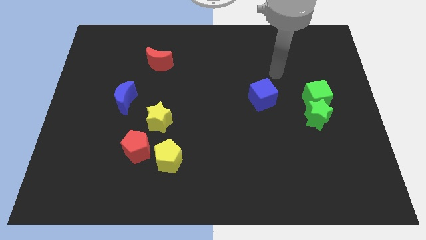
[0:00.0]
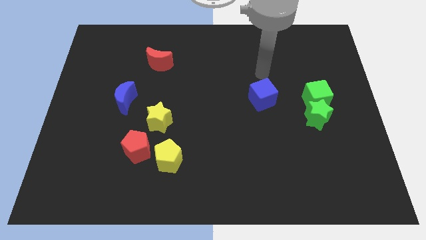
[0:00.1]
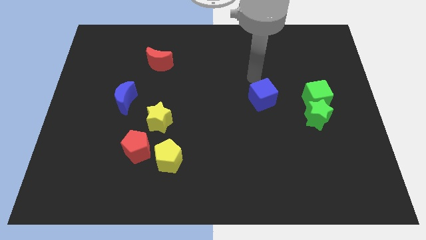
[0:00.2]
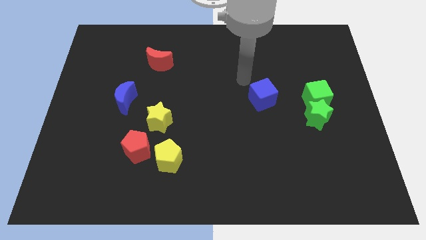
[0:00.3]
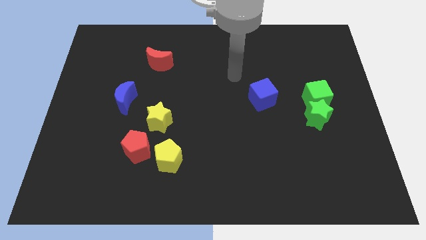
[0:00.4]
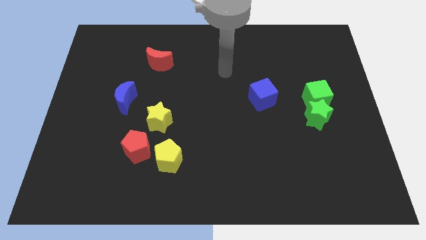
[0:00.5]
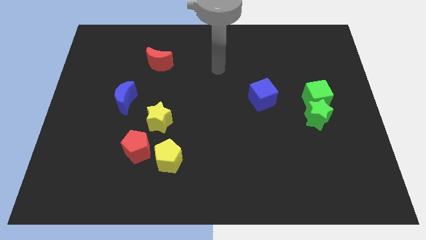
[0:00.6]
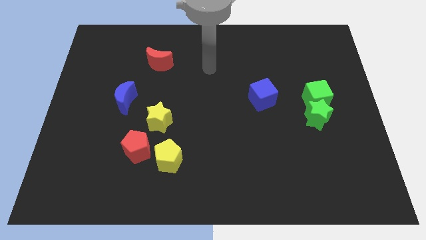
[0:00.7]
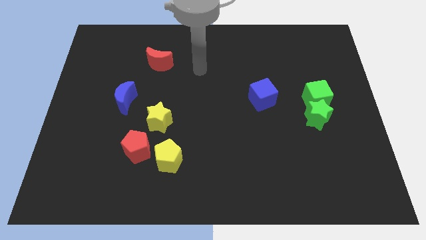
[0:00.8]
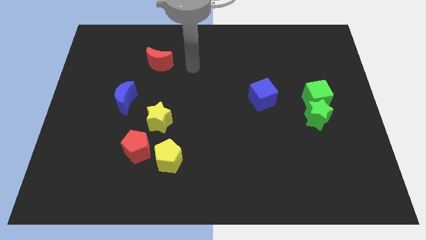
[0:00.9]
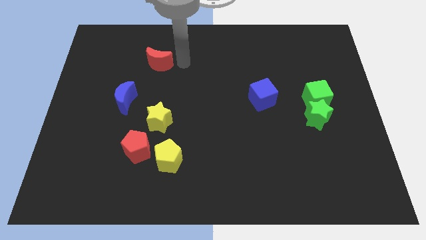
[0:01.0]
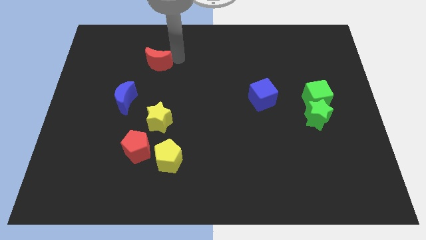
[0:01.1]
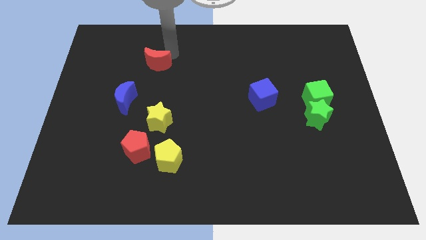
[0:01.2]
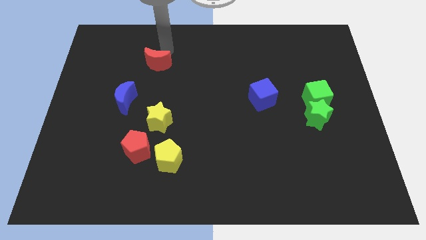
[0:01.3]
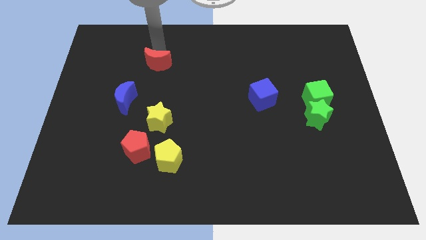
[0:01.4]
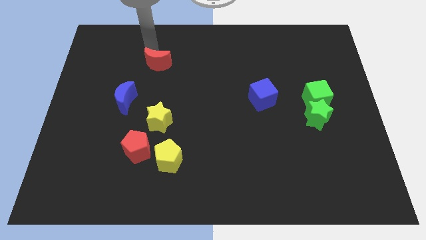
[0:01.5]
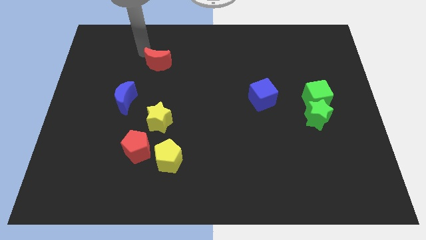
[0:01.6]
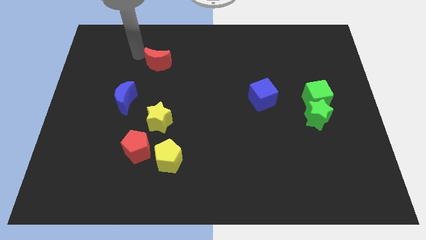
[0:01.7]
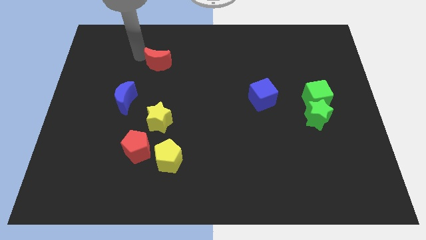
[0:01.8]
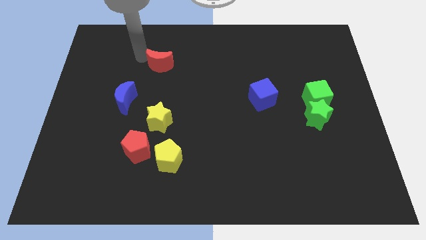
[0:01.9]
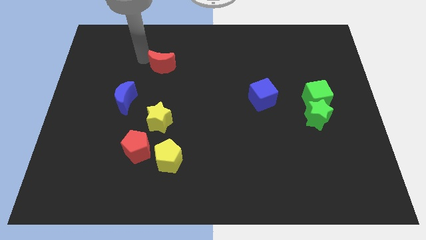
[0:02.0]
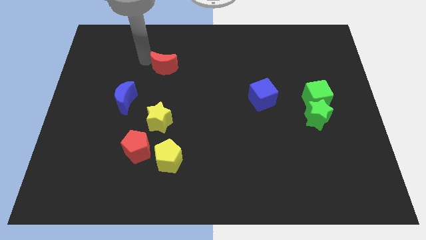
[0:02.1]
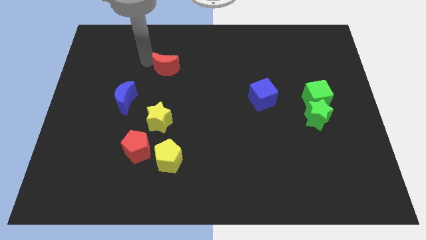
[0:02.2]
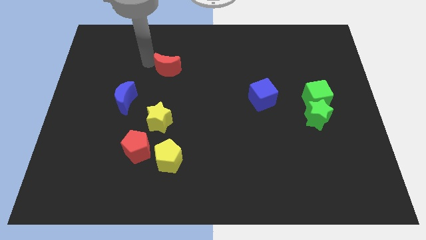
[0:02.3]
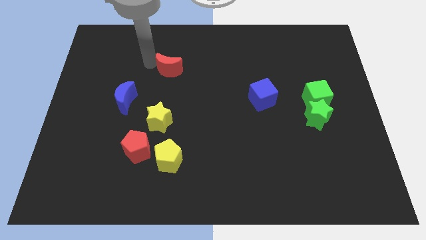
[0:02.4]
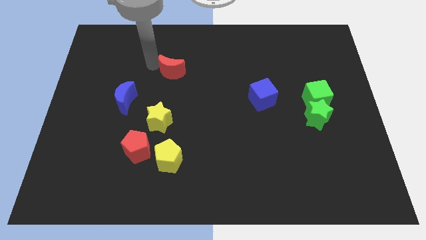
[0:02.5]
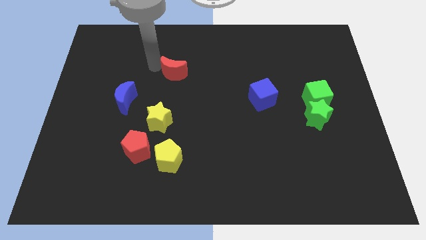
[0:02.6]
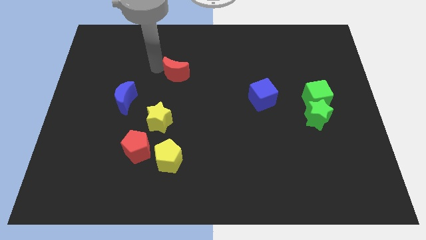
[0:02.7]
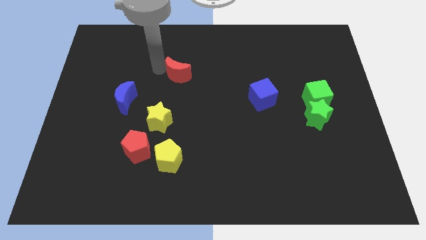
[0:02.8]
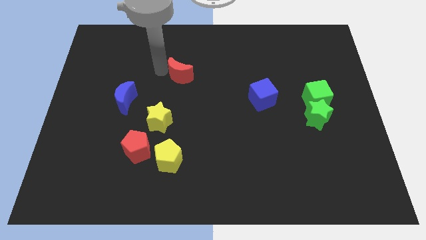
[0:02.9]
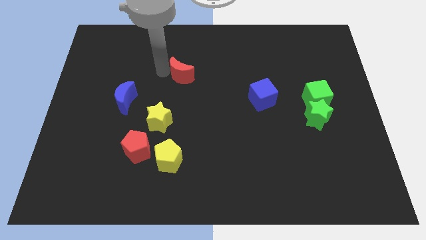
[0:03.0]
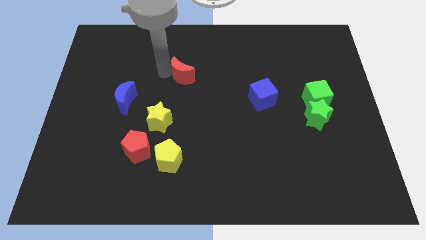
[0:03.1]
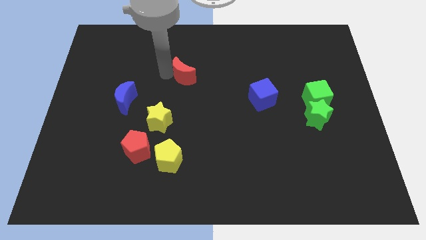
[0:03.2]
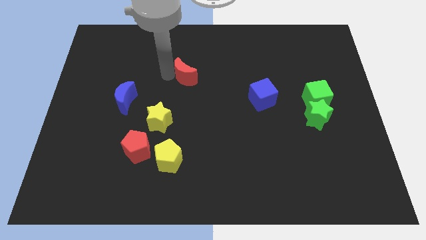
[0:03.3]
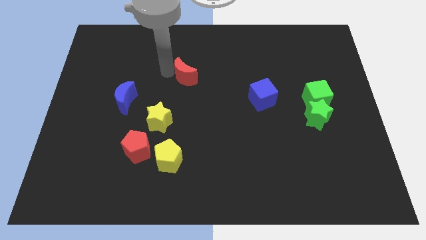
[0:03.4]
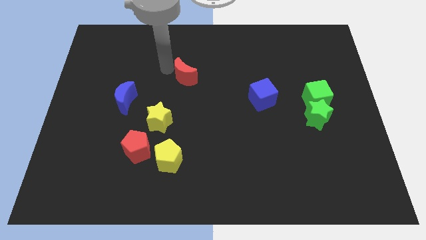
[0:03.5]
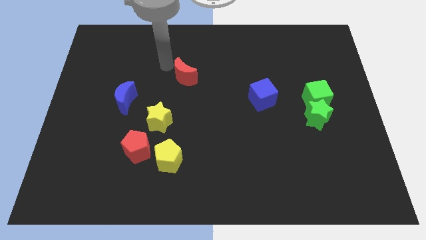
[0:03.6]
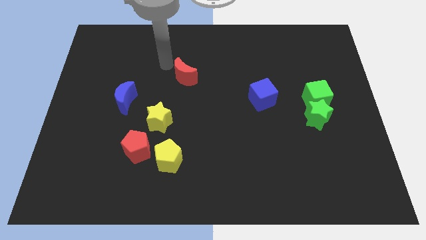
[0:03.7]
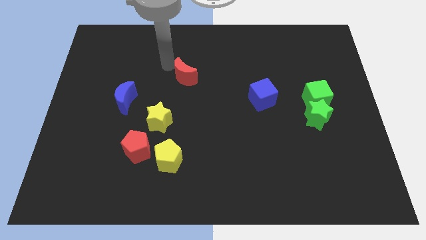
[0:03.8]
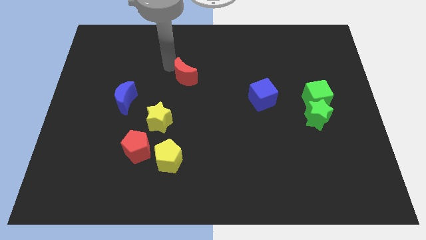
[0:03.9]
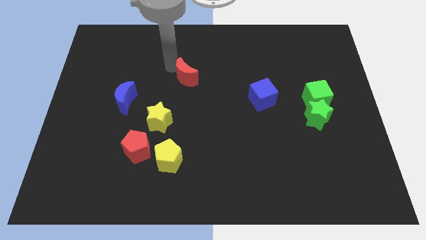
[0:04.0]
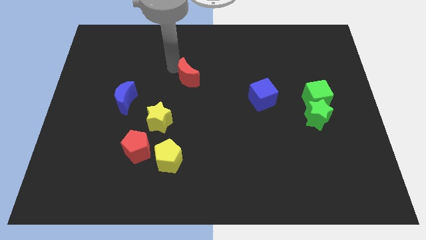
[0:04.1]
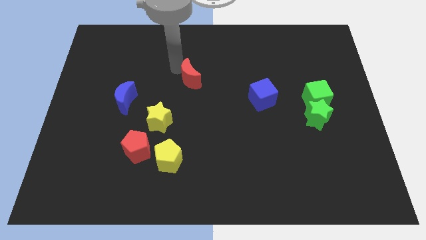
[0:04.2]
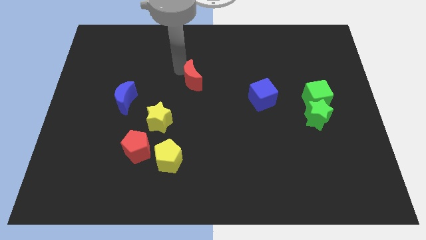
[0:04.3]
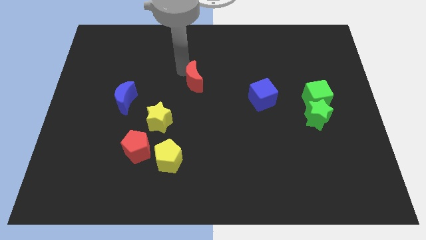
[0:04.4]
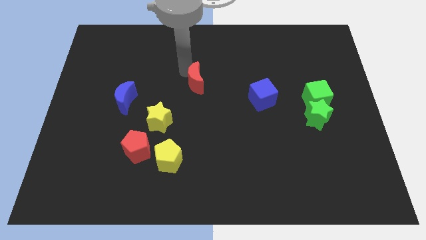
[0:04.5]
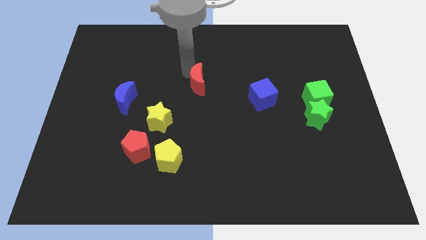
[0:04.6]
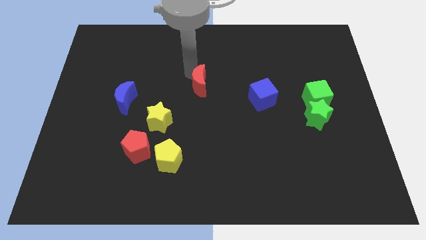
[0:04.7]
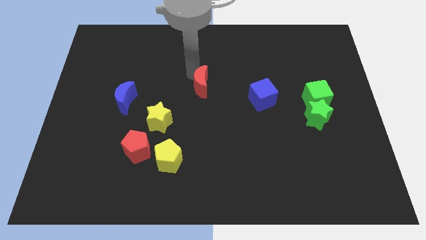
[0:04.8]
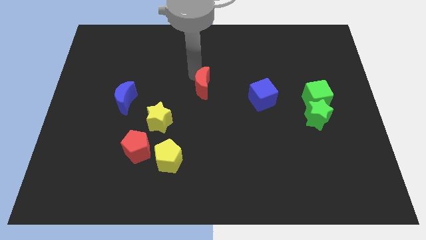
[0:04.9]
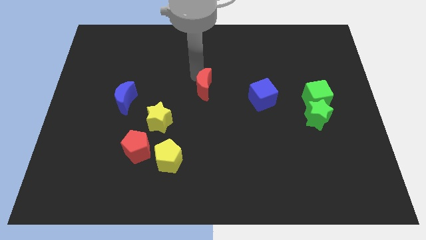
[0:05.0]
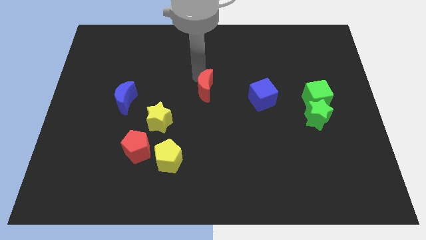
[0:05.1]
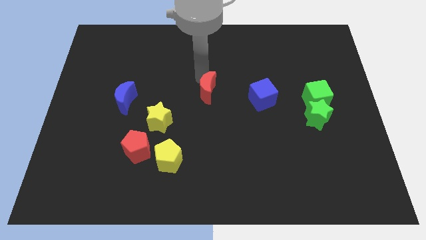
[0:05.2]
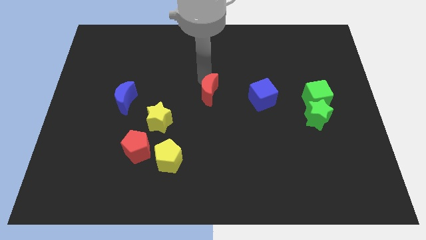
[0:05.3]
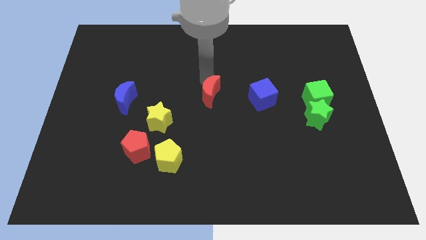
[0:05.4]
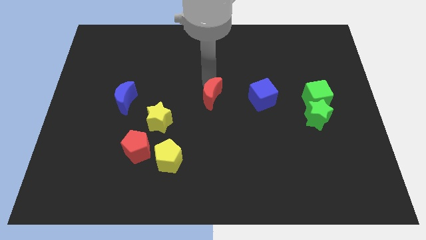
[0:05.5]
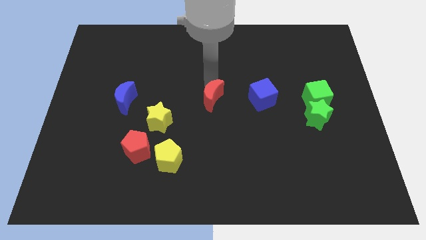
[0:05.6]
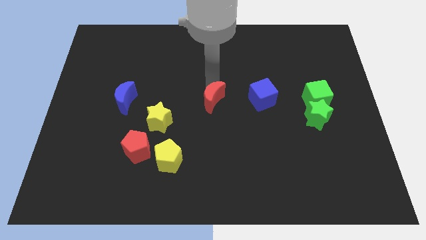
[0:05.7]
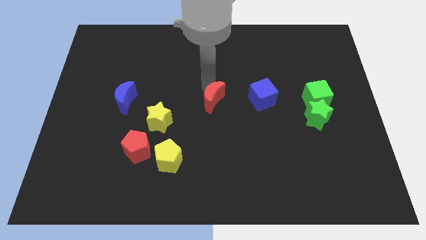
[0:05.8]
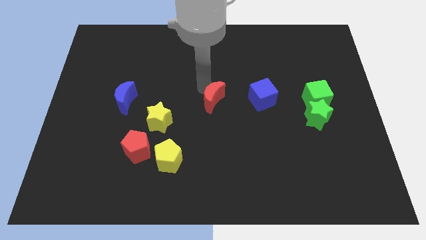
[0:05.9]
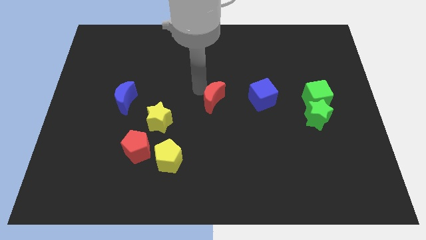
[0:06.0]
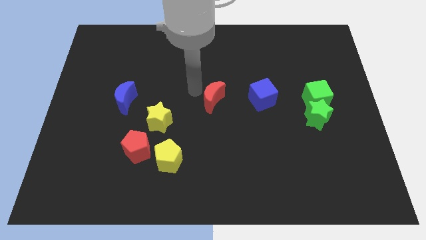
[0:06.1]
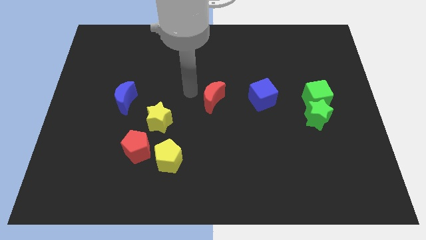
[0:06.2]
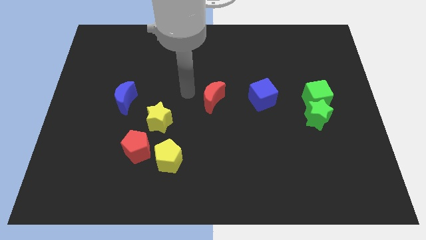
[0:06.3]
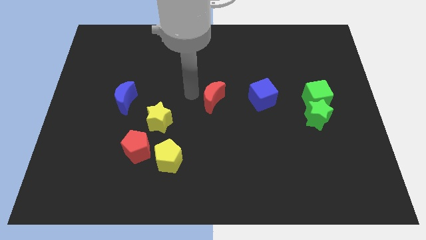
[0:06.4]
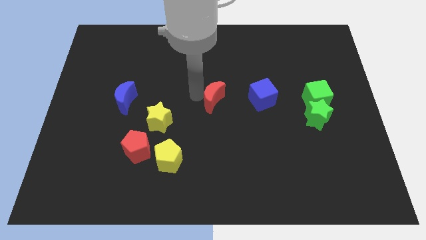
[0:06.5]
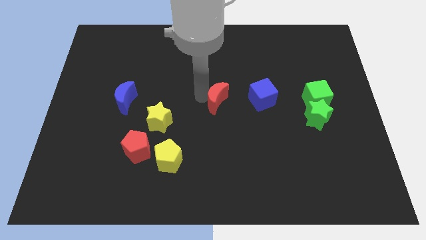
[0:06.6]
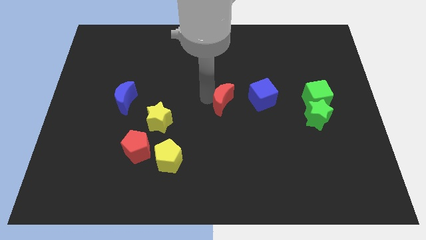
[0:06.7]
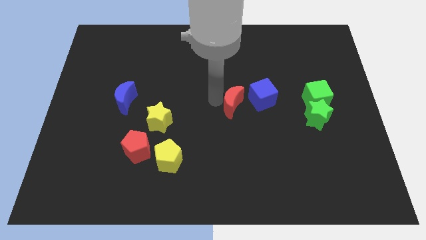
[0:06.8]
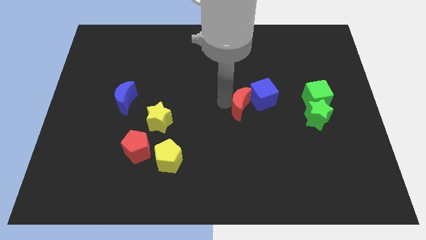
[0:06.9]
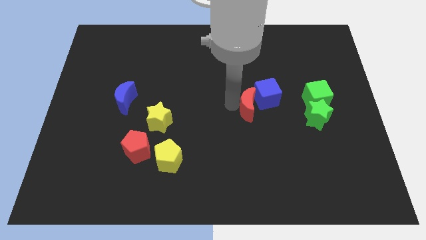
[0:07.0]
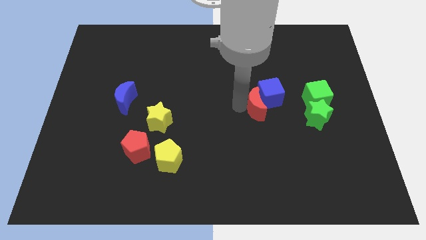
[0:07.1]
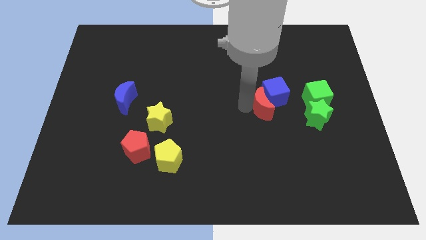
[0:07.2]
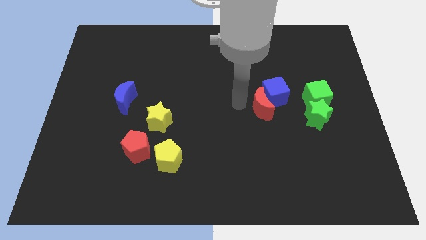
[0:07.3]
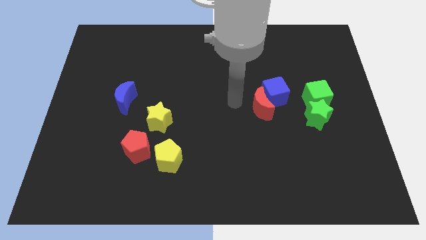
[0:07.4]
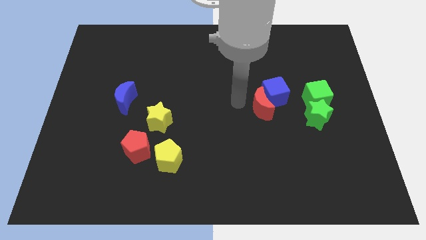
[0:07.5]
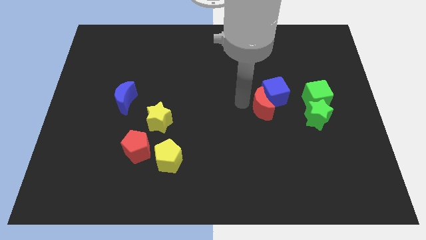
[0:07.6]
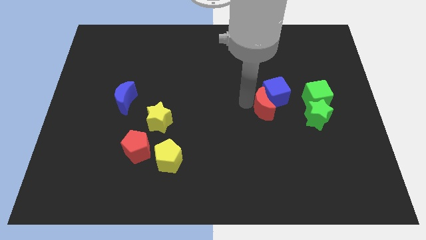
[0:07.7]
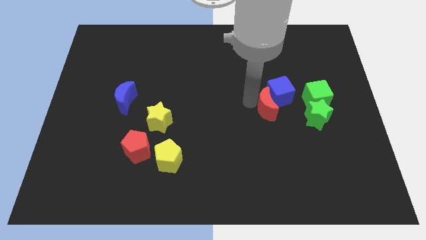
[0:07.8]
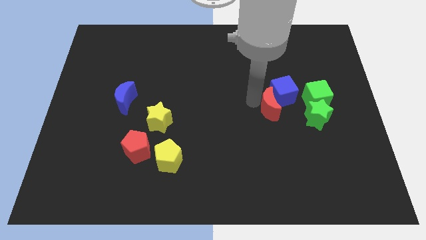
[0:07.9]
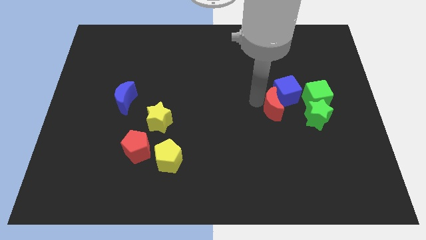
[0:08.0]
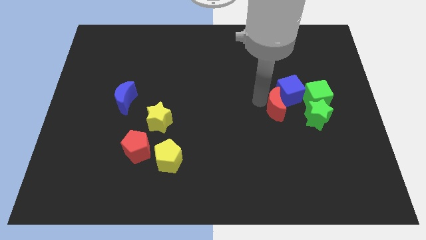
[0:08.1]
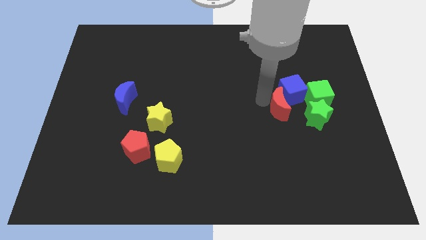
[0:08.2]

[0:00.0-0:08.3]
slide the red moon diagonally down and to the left of the green cube
